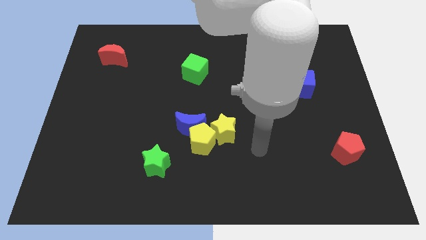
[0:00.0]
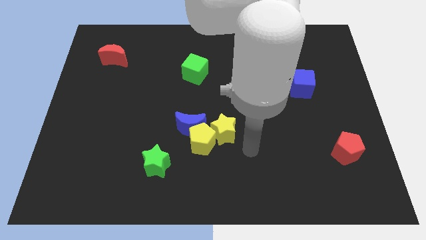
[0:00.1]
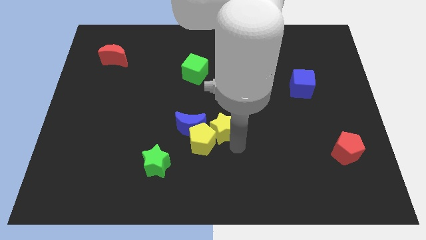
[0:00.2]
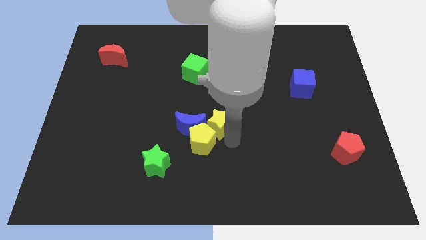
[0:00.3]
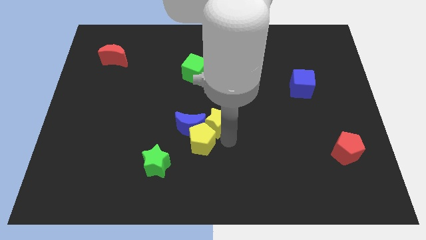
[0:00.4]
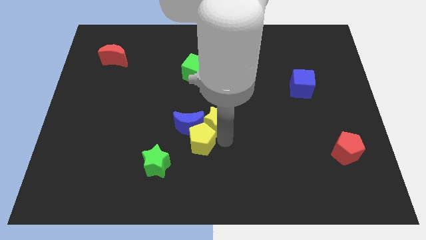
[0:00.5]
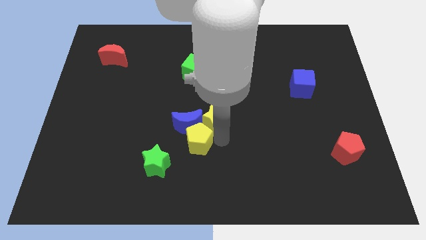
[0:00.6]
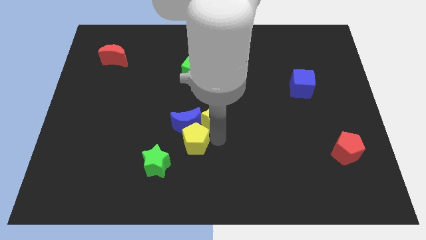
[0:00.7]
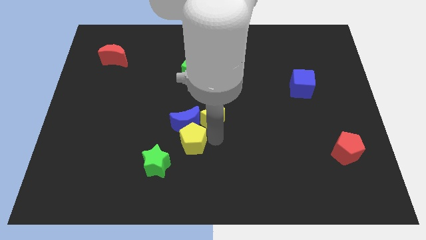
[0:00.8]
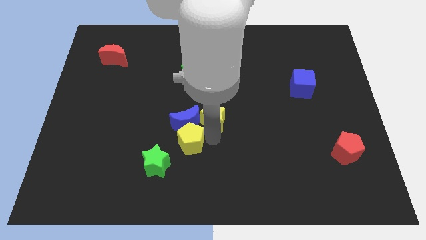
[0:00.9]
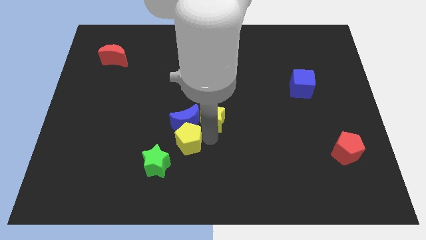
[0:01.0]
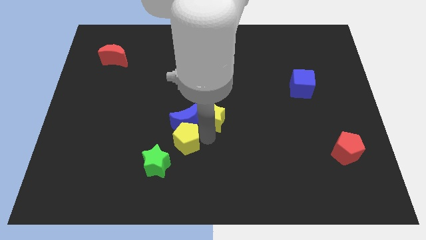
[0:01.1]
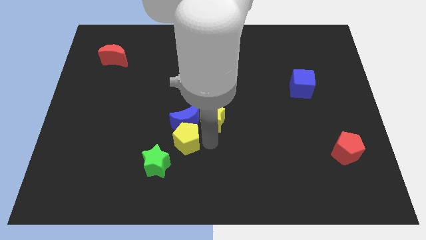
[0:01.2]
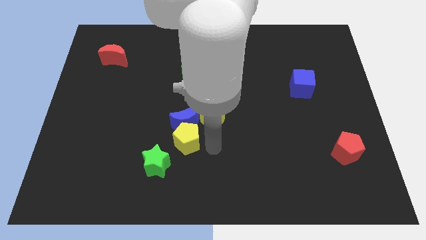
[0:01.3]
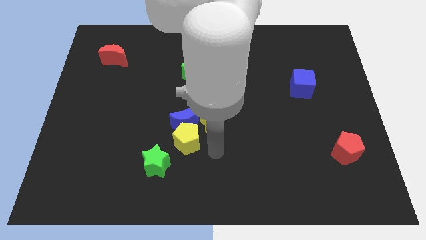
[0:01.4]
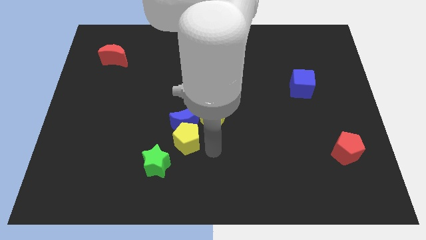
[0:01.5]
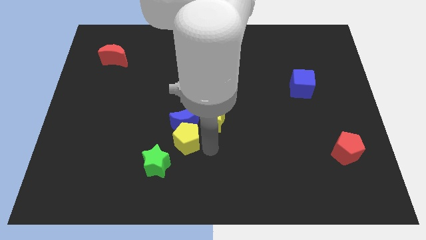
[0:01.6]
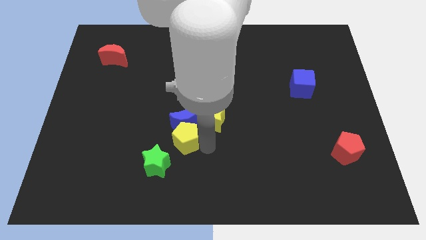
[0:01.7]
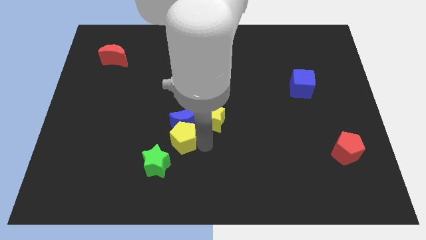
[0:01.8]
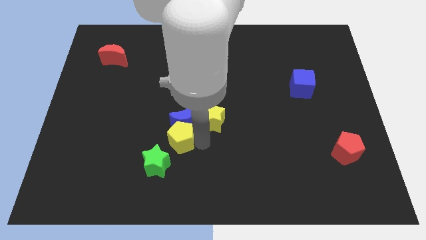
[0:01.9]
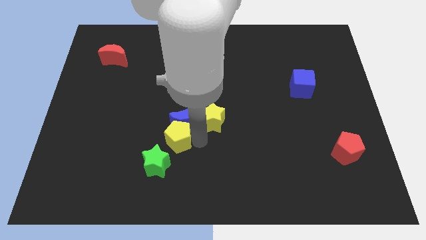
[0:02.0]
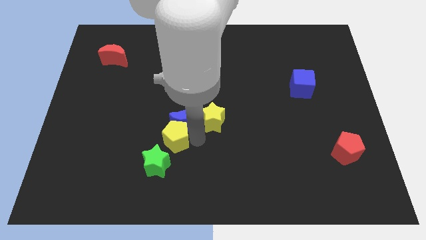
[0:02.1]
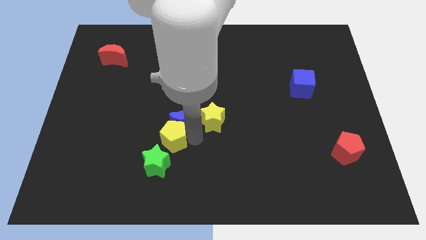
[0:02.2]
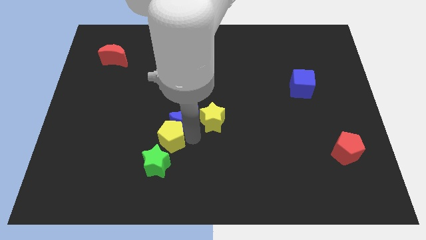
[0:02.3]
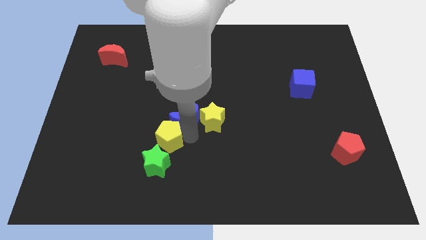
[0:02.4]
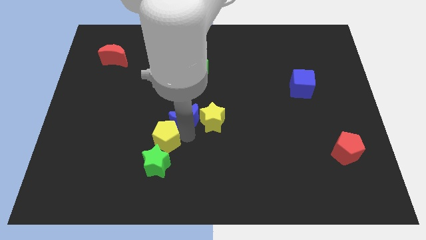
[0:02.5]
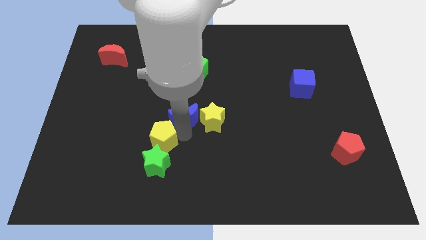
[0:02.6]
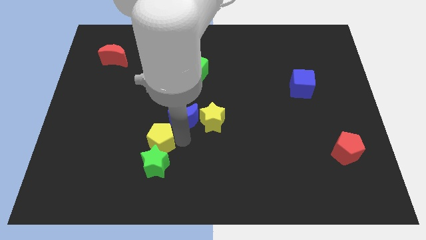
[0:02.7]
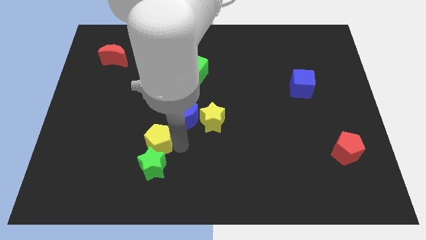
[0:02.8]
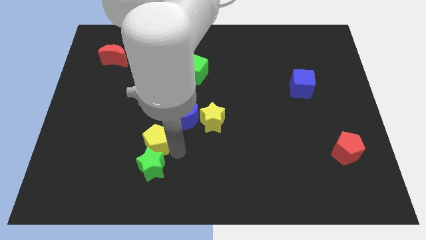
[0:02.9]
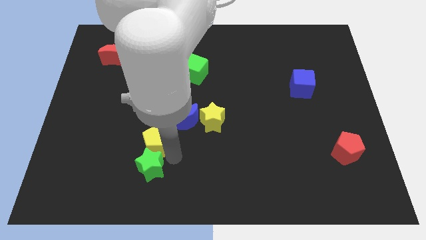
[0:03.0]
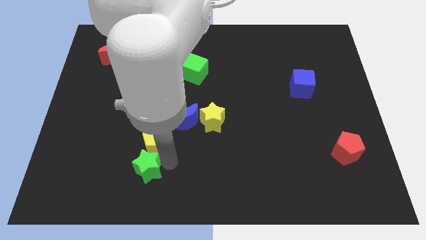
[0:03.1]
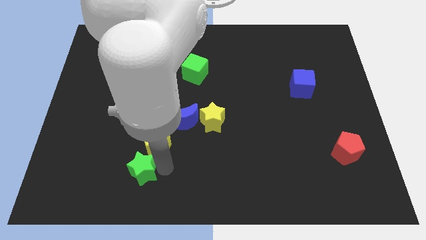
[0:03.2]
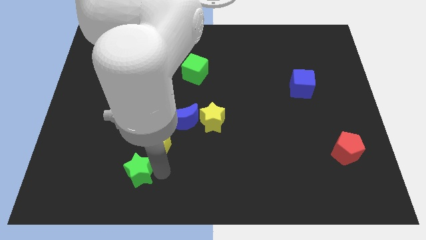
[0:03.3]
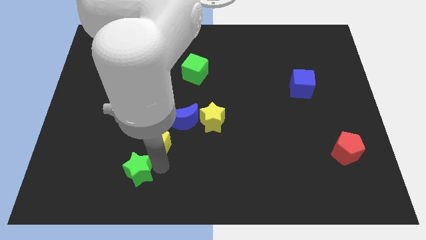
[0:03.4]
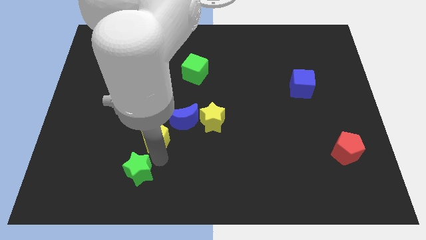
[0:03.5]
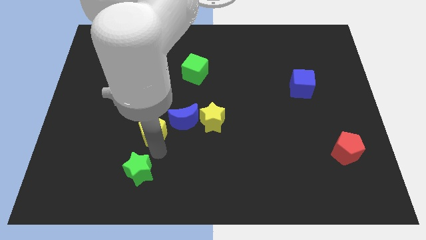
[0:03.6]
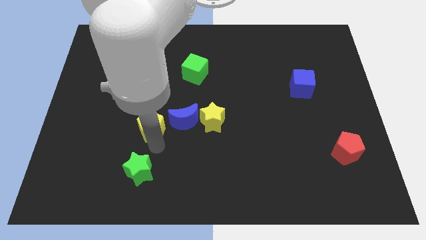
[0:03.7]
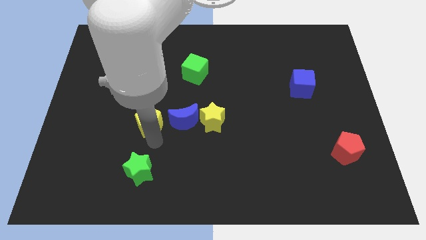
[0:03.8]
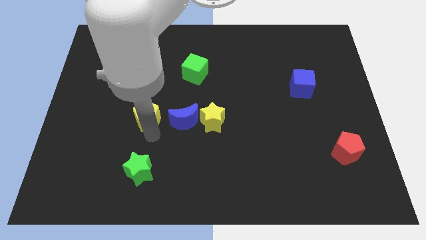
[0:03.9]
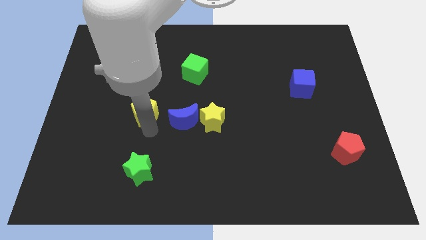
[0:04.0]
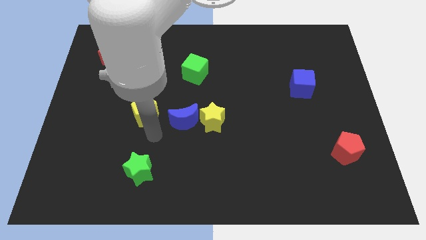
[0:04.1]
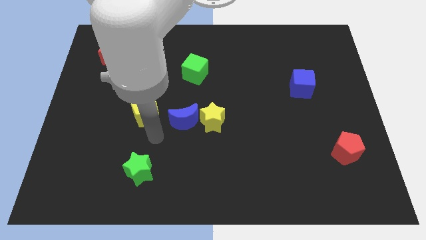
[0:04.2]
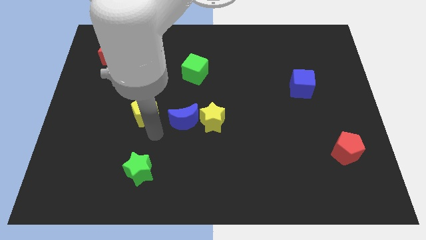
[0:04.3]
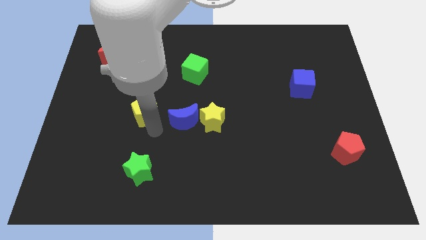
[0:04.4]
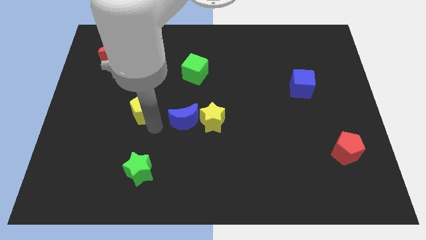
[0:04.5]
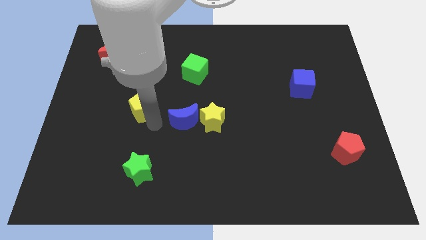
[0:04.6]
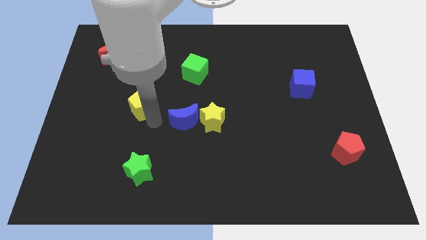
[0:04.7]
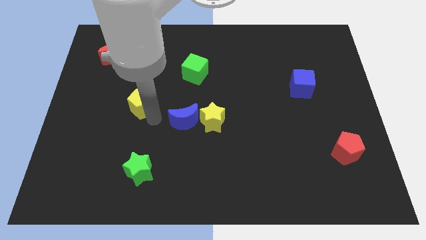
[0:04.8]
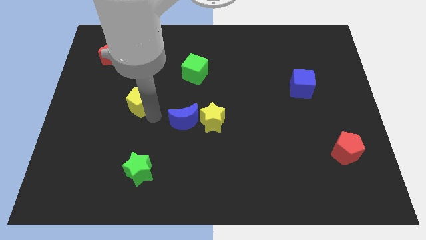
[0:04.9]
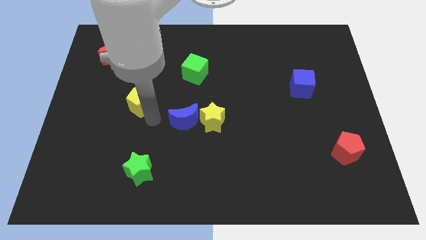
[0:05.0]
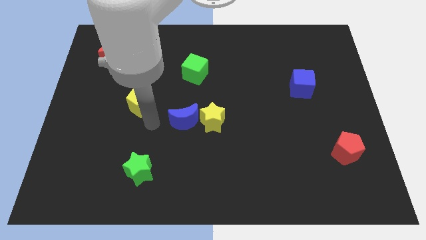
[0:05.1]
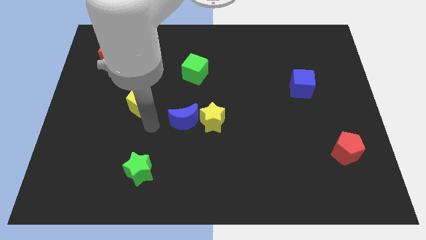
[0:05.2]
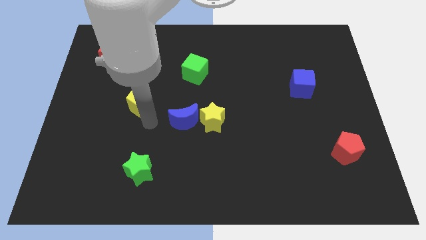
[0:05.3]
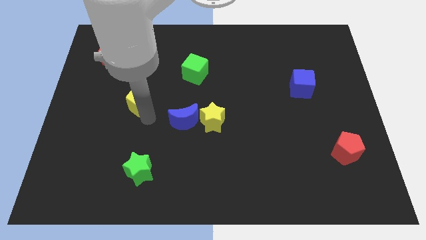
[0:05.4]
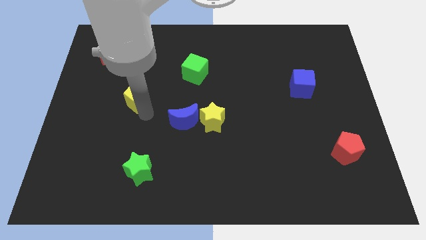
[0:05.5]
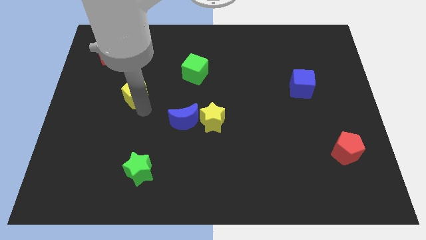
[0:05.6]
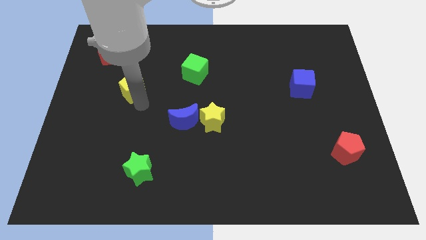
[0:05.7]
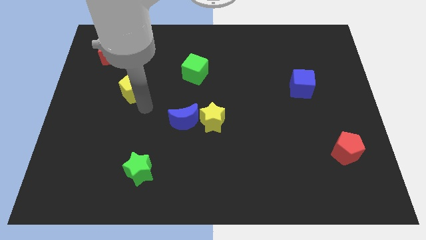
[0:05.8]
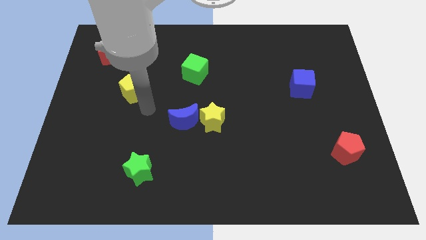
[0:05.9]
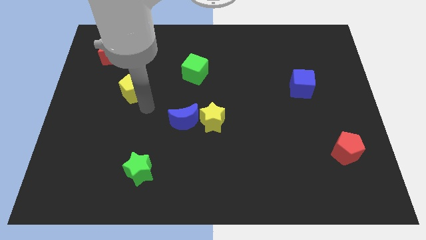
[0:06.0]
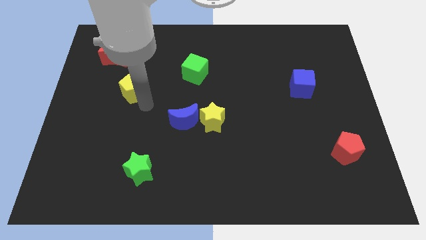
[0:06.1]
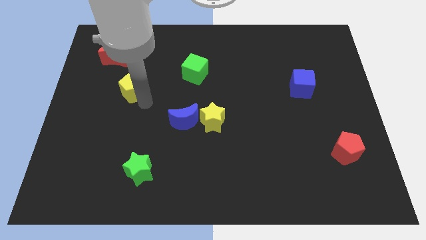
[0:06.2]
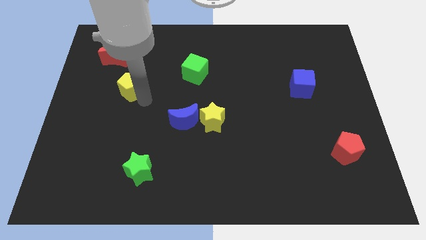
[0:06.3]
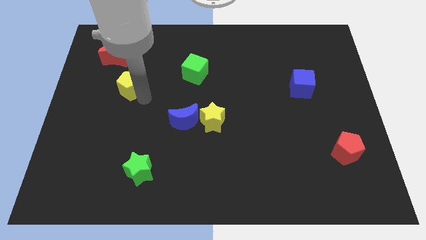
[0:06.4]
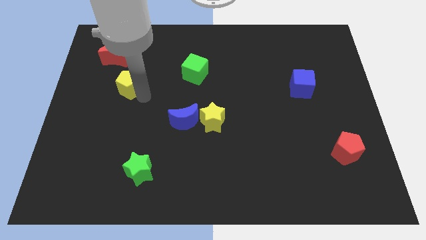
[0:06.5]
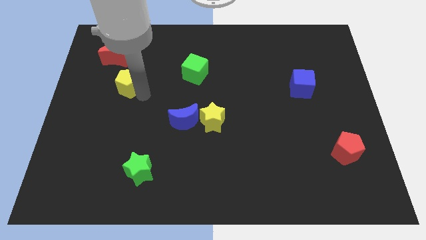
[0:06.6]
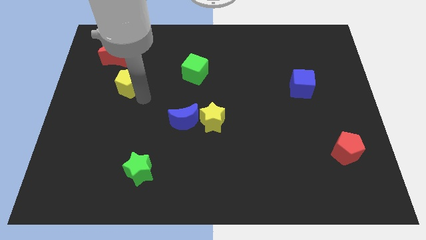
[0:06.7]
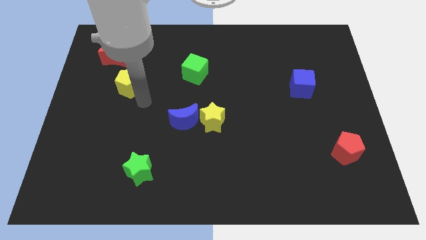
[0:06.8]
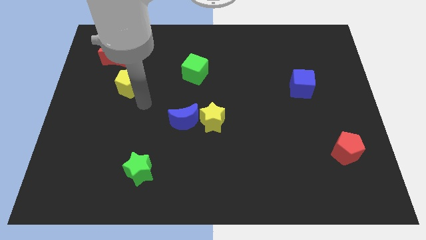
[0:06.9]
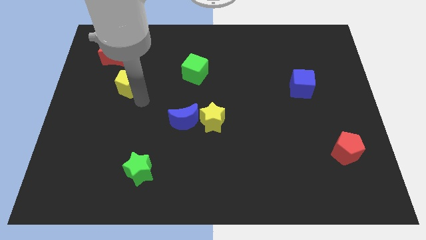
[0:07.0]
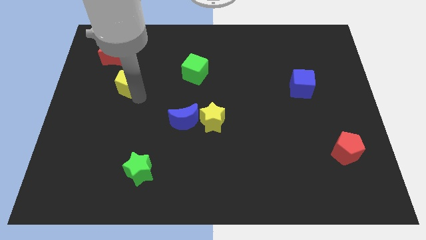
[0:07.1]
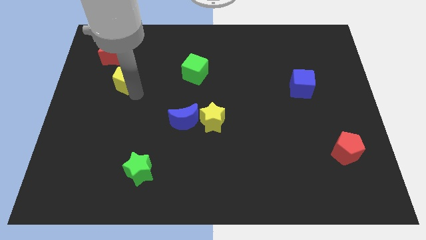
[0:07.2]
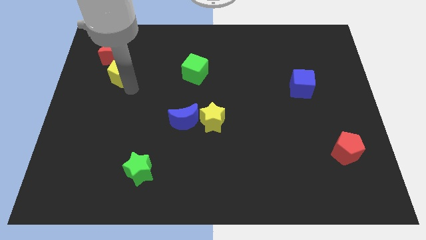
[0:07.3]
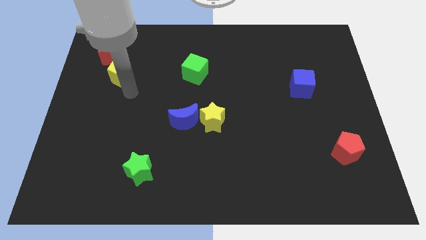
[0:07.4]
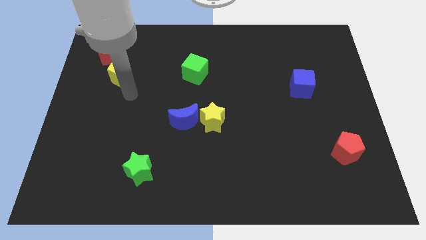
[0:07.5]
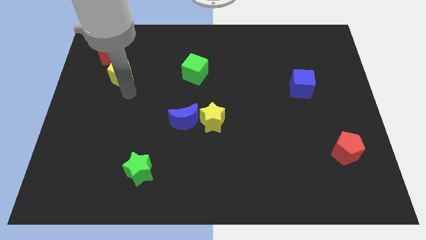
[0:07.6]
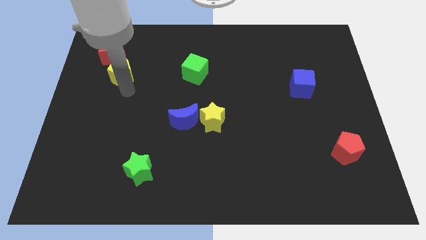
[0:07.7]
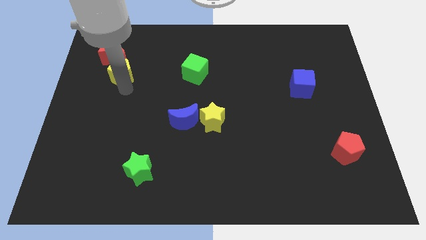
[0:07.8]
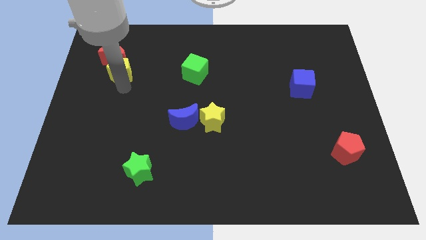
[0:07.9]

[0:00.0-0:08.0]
move the yellow pentagon close to the red moon
